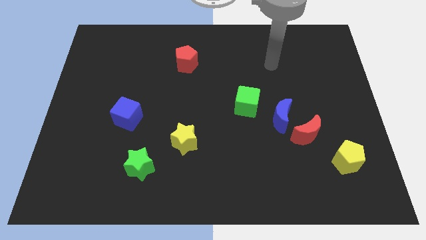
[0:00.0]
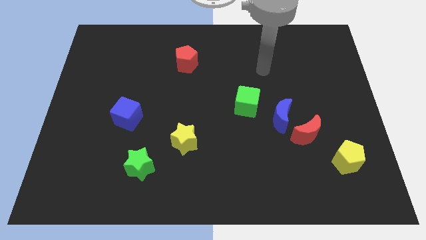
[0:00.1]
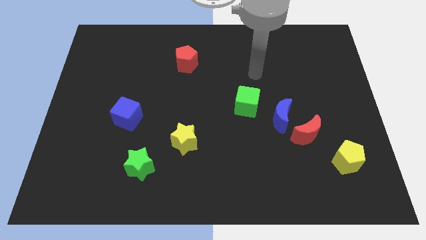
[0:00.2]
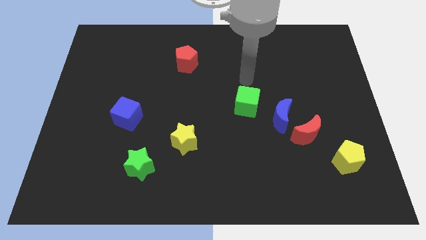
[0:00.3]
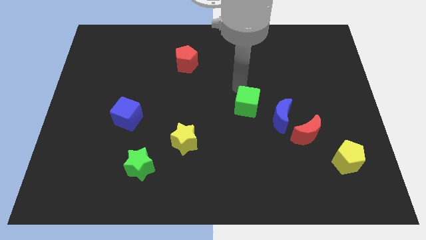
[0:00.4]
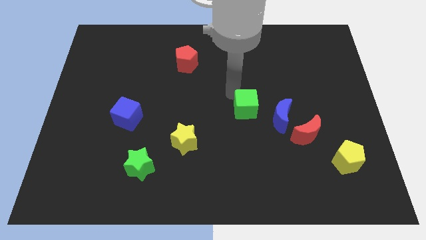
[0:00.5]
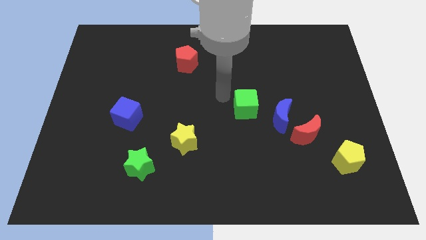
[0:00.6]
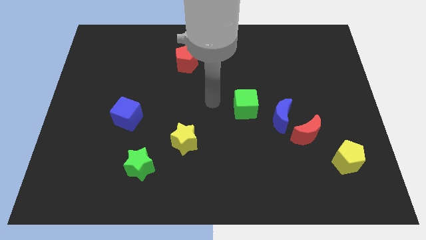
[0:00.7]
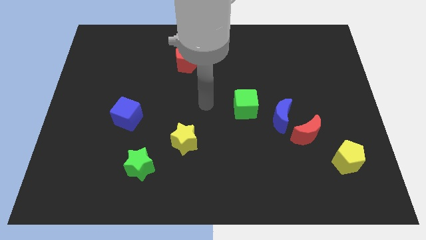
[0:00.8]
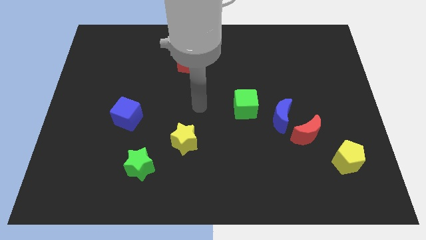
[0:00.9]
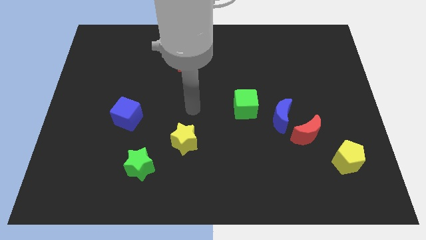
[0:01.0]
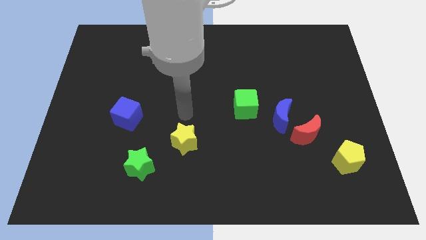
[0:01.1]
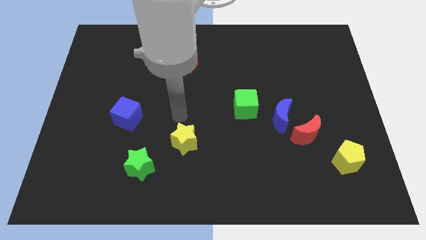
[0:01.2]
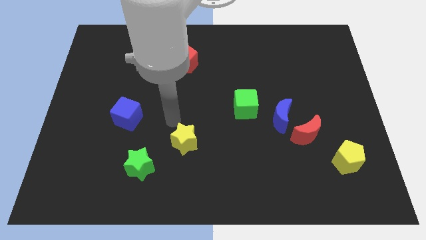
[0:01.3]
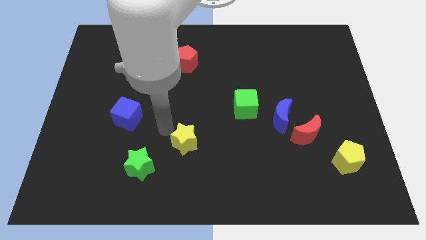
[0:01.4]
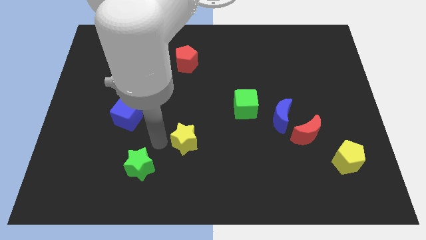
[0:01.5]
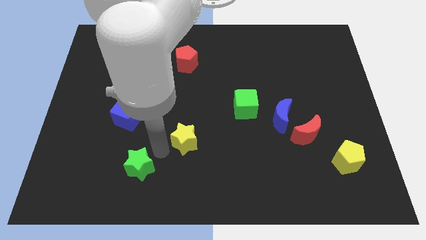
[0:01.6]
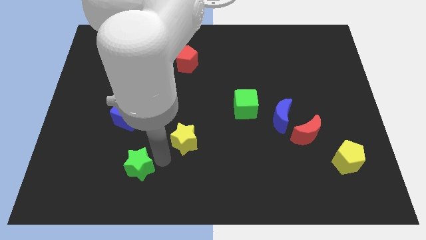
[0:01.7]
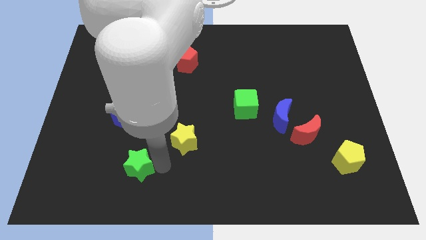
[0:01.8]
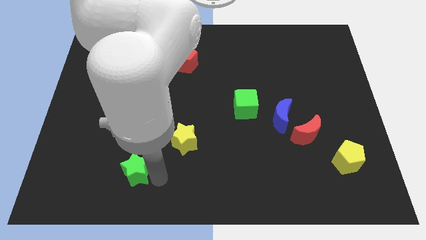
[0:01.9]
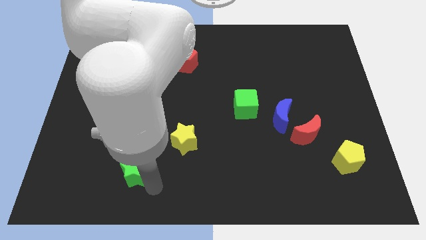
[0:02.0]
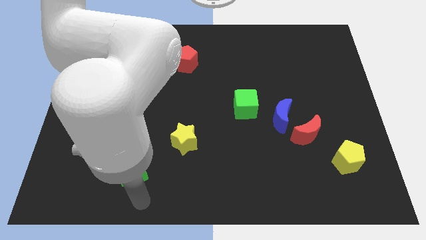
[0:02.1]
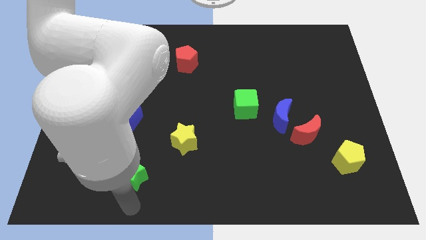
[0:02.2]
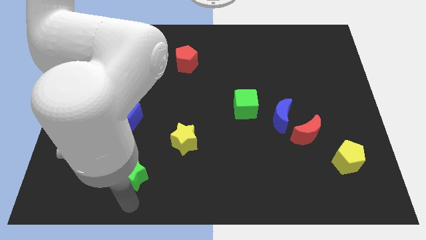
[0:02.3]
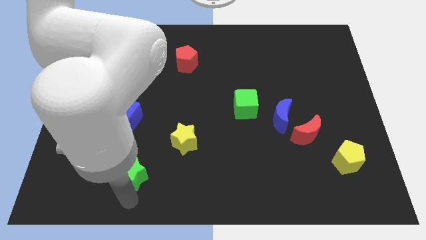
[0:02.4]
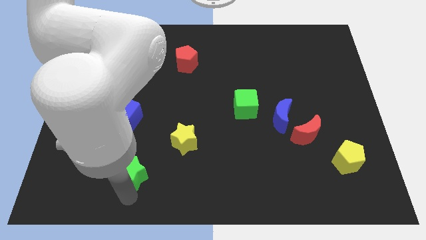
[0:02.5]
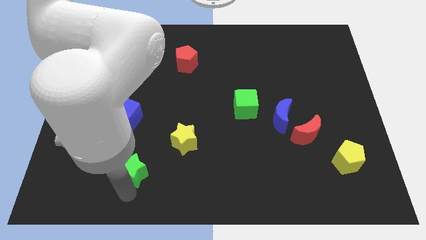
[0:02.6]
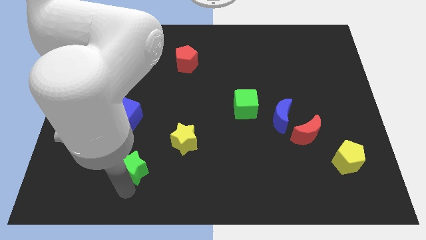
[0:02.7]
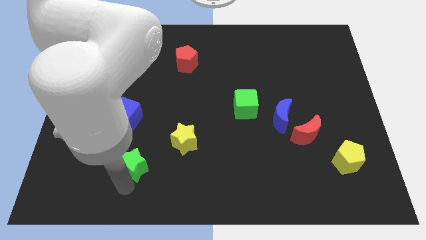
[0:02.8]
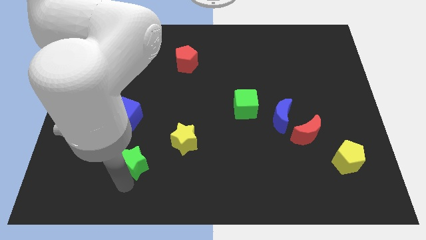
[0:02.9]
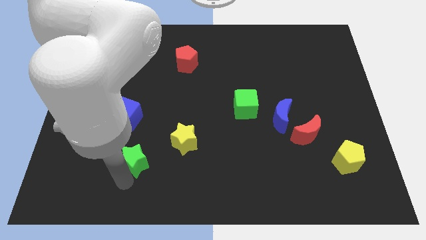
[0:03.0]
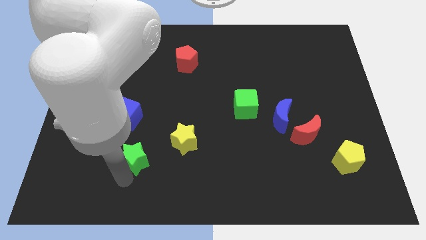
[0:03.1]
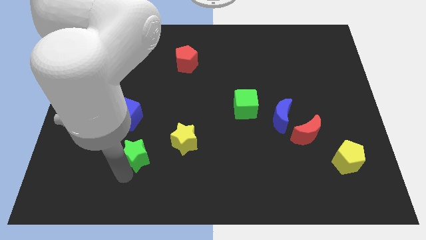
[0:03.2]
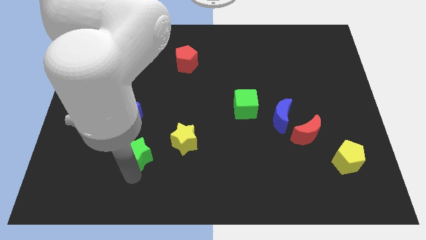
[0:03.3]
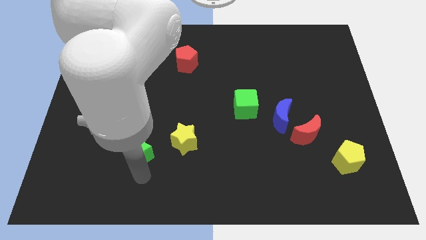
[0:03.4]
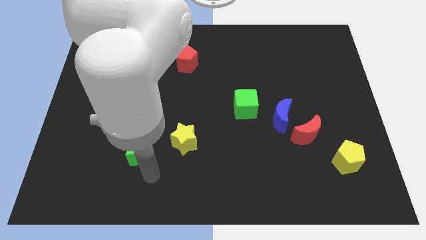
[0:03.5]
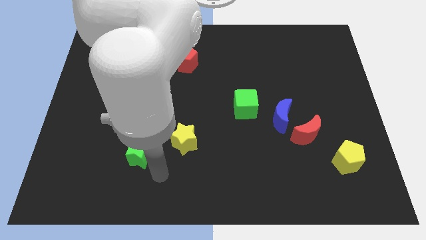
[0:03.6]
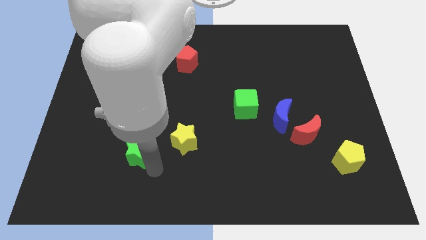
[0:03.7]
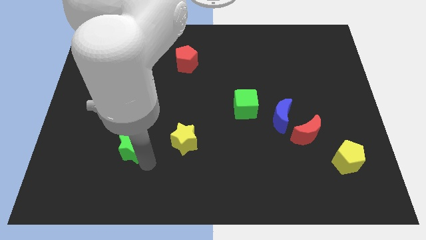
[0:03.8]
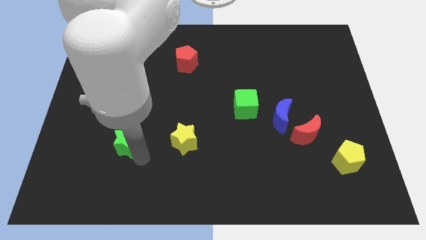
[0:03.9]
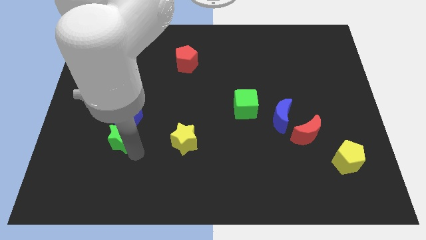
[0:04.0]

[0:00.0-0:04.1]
move the green star slightly diagonally upwards and left

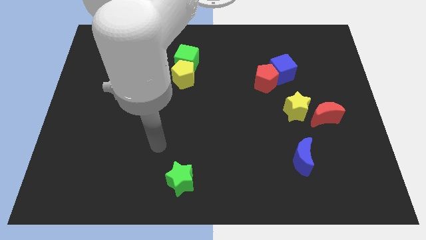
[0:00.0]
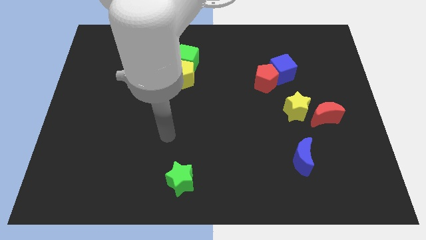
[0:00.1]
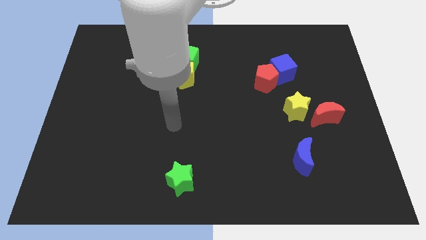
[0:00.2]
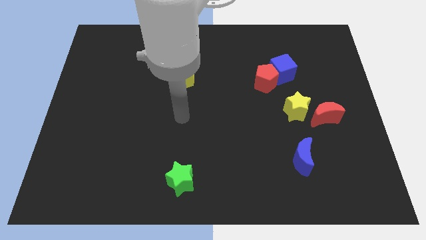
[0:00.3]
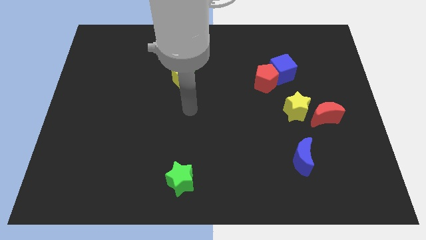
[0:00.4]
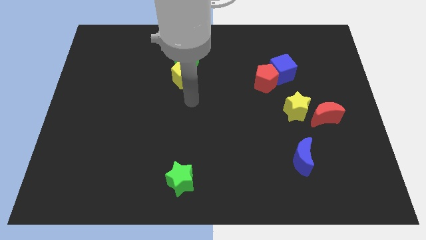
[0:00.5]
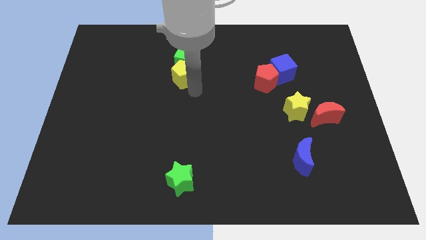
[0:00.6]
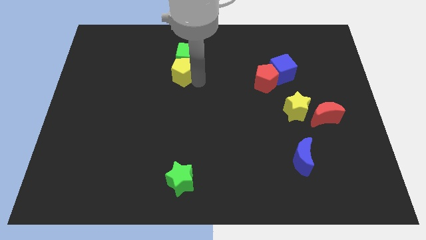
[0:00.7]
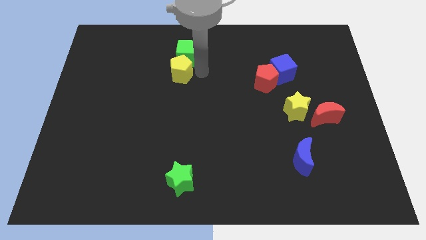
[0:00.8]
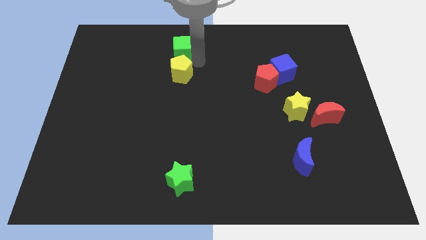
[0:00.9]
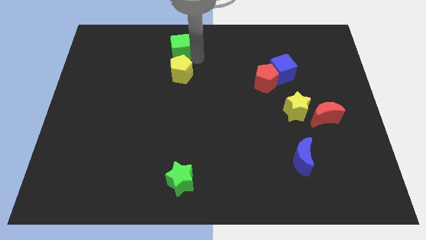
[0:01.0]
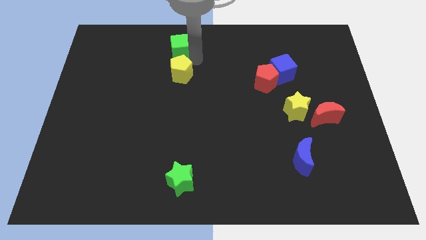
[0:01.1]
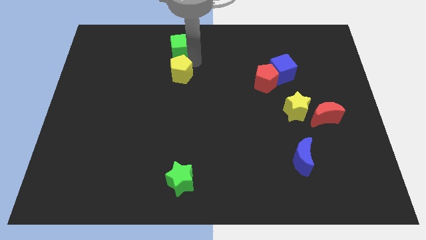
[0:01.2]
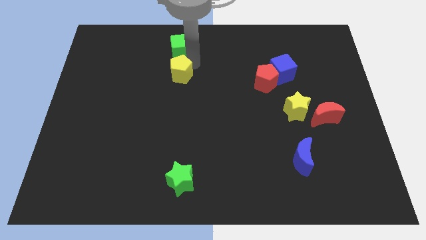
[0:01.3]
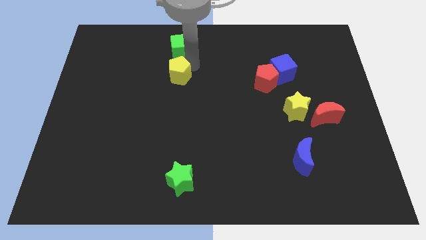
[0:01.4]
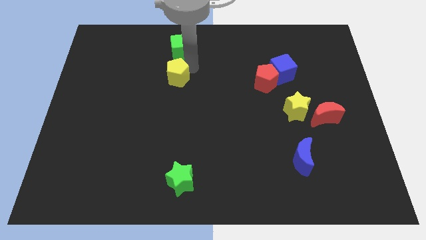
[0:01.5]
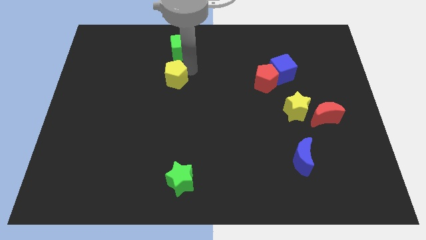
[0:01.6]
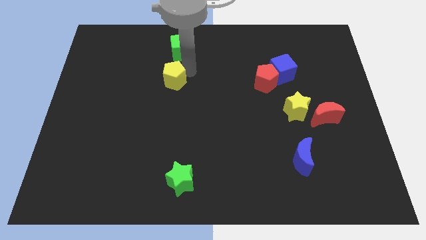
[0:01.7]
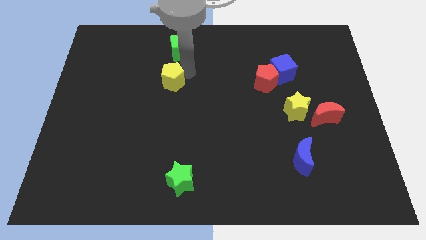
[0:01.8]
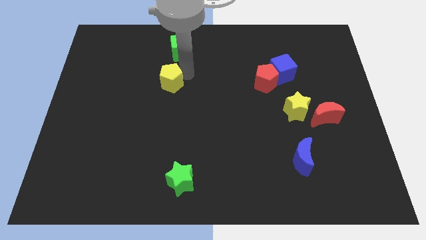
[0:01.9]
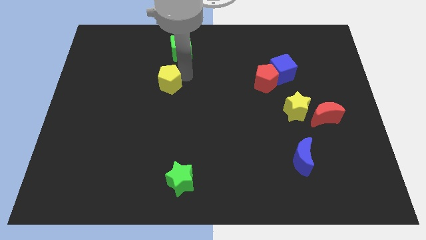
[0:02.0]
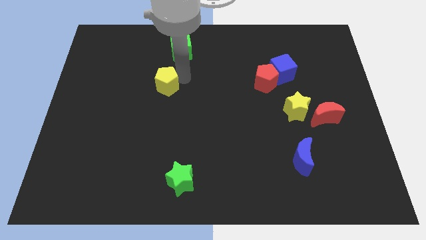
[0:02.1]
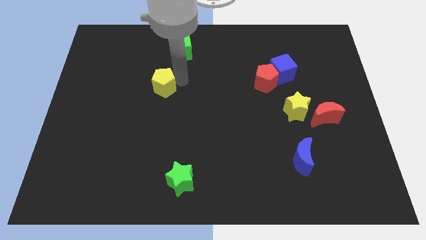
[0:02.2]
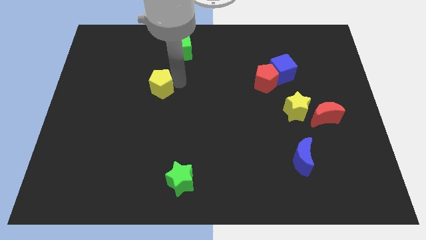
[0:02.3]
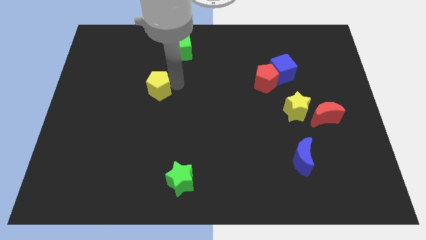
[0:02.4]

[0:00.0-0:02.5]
slide the yellow pentagon a little bit downwards and left diagonally

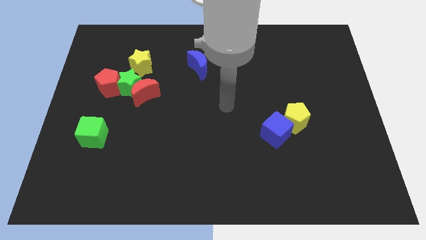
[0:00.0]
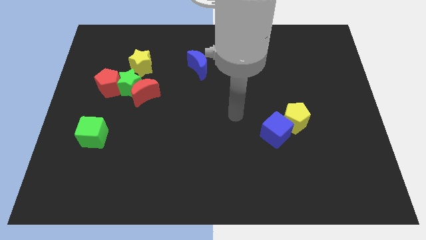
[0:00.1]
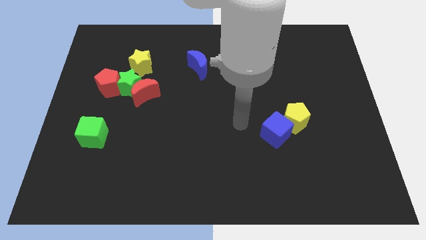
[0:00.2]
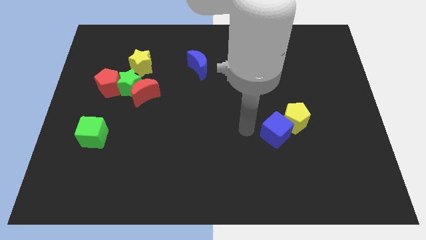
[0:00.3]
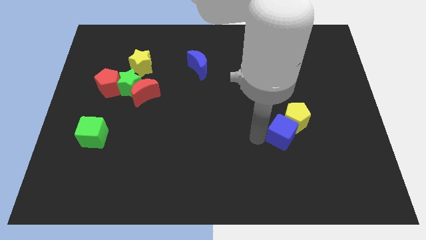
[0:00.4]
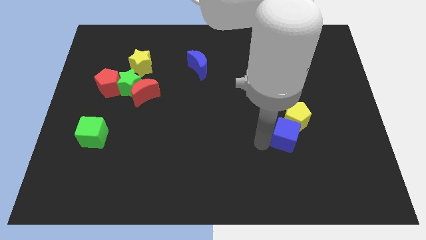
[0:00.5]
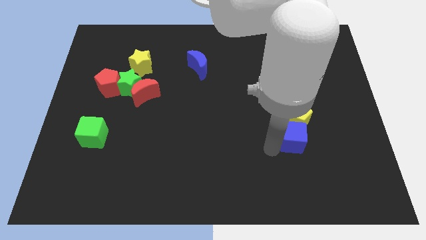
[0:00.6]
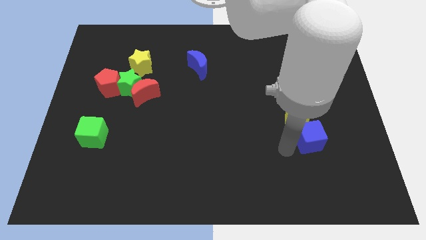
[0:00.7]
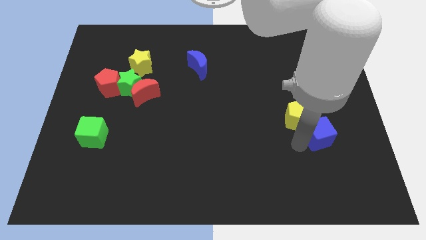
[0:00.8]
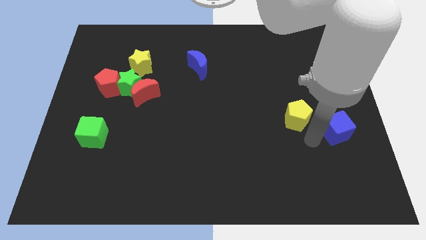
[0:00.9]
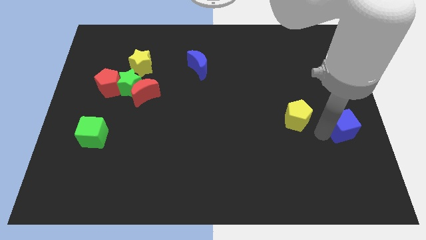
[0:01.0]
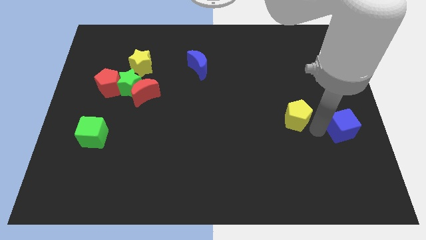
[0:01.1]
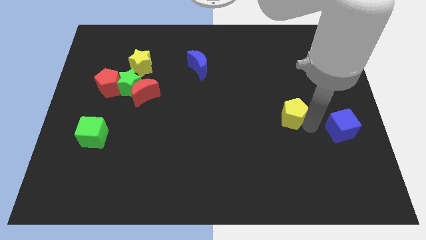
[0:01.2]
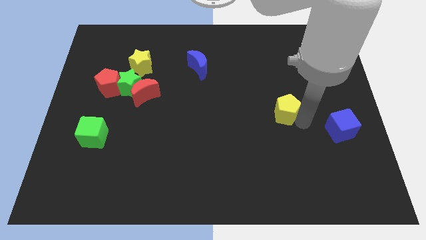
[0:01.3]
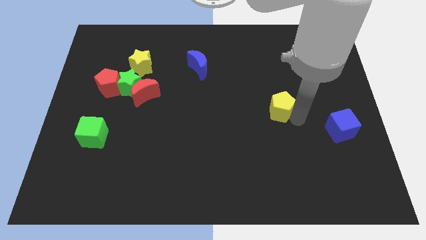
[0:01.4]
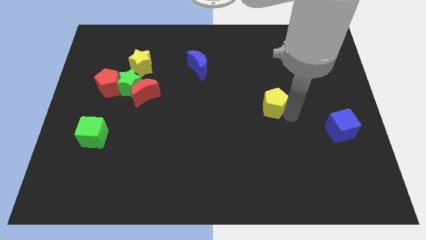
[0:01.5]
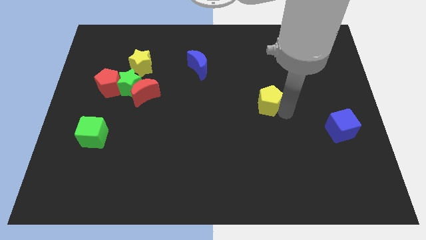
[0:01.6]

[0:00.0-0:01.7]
move the yellow pentagon slightly up and left
